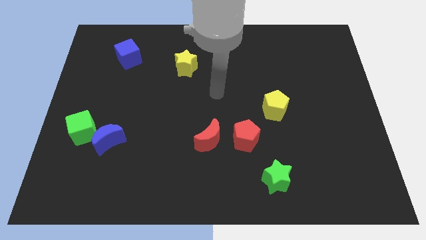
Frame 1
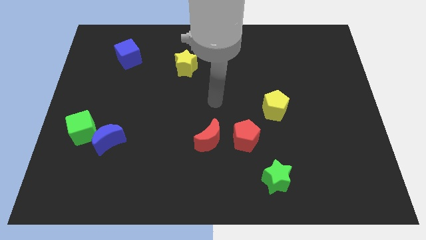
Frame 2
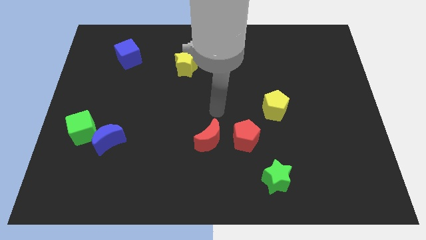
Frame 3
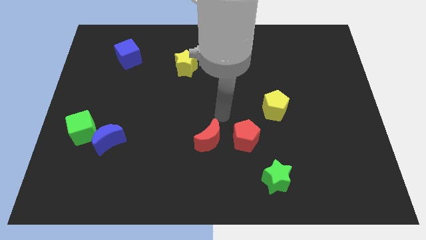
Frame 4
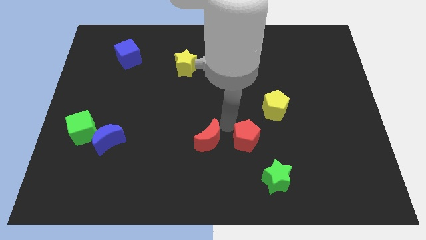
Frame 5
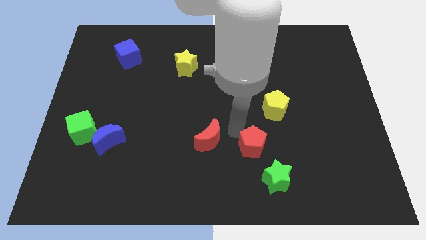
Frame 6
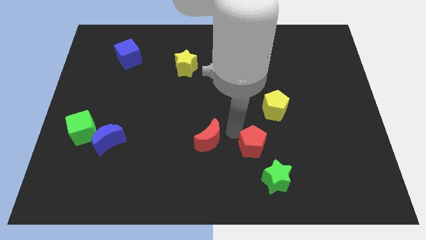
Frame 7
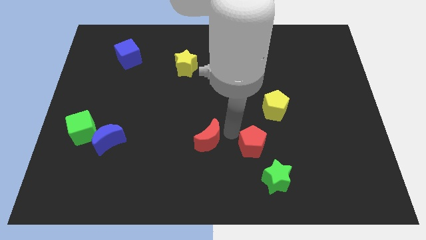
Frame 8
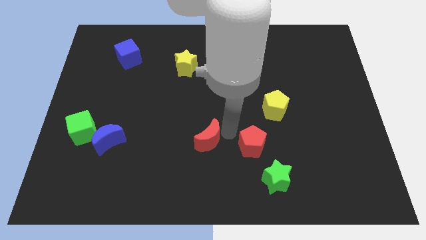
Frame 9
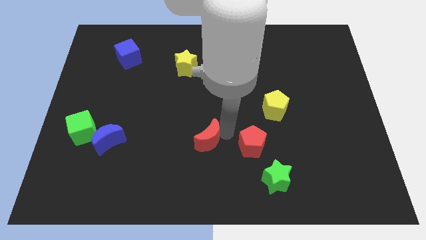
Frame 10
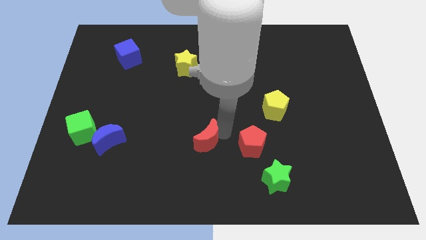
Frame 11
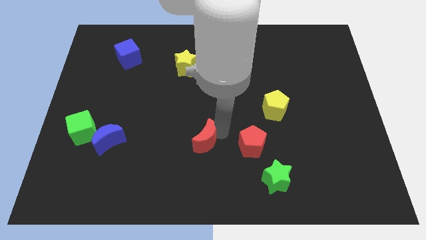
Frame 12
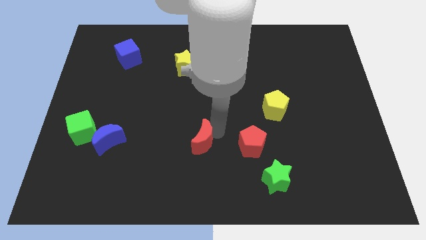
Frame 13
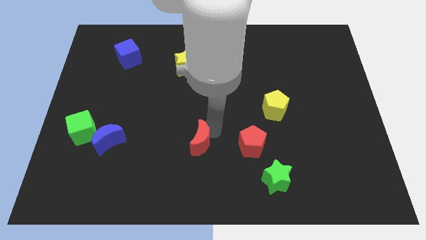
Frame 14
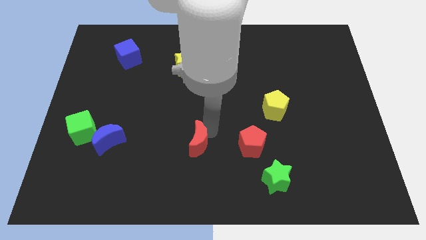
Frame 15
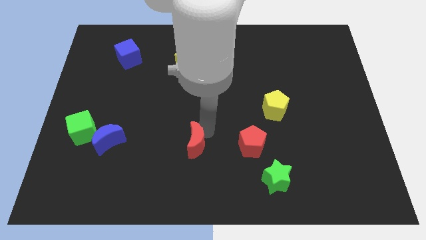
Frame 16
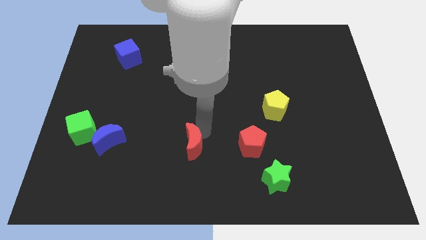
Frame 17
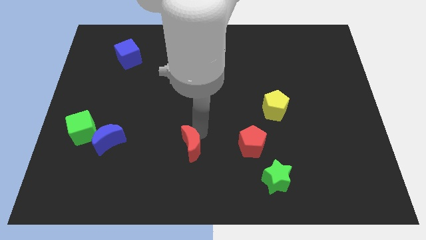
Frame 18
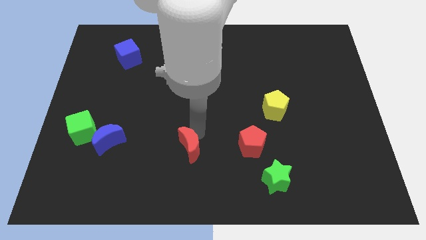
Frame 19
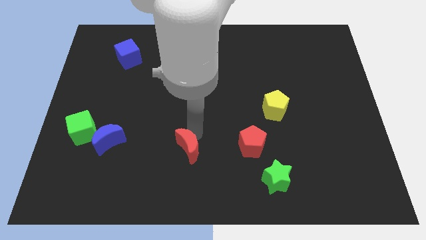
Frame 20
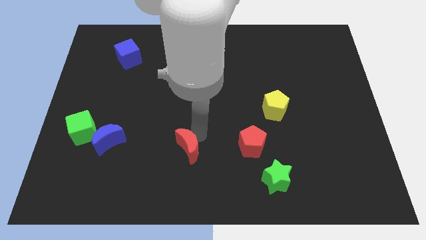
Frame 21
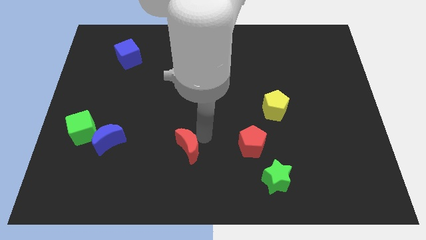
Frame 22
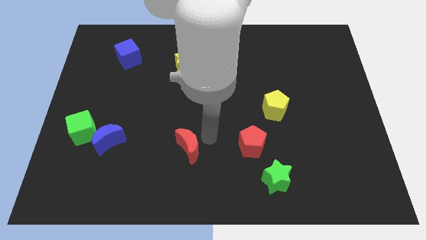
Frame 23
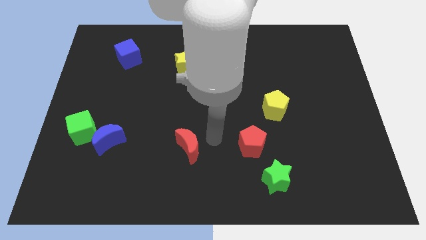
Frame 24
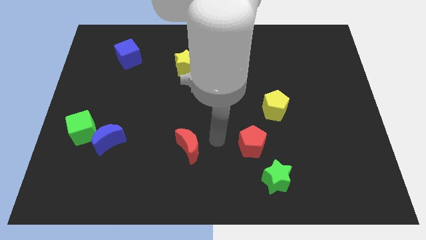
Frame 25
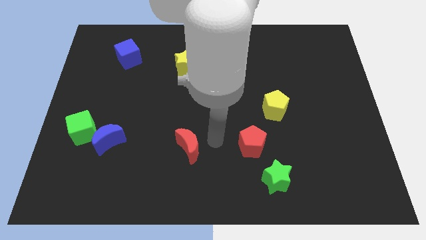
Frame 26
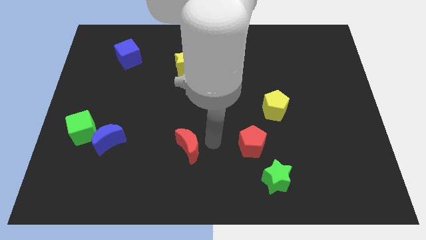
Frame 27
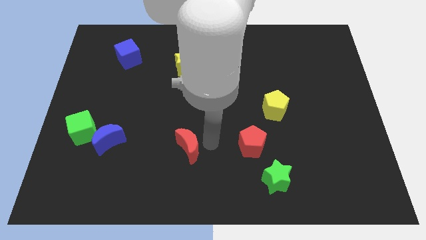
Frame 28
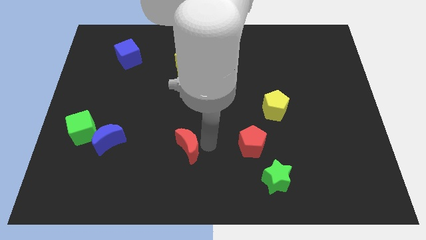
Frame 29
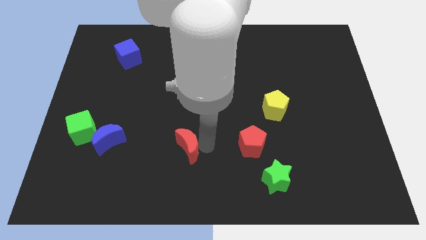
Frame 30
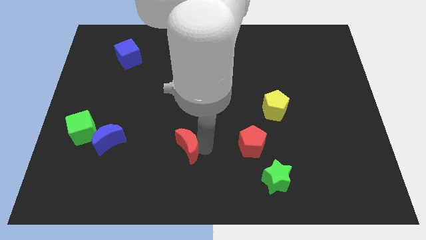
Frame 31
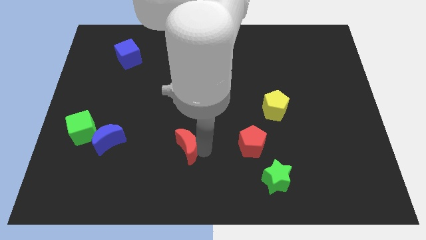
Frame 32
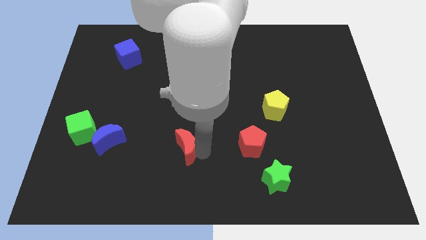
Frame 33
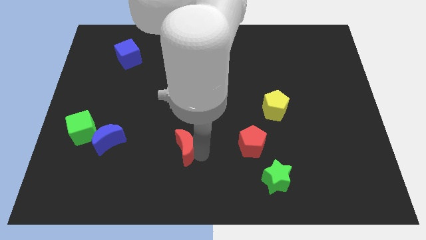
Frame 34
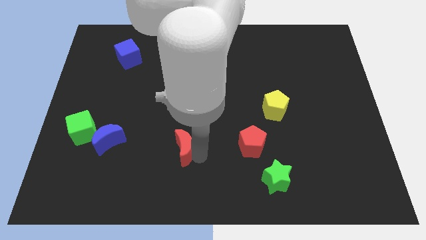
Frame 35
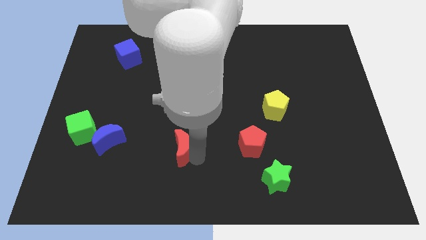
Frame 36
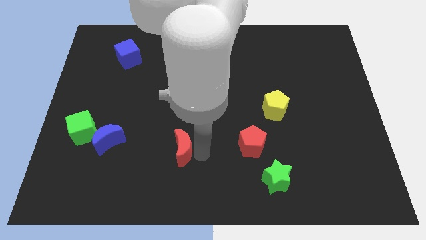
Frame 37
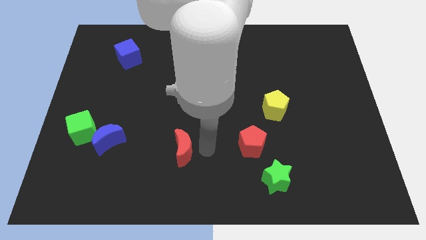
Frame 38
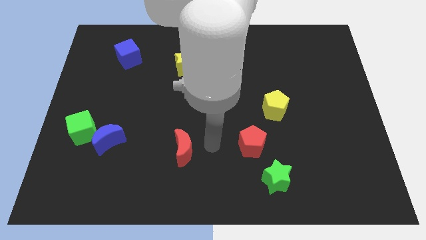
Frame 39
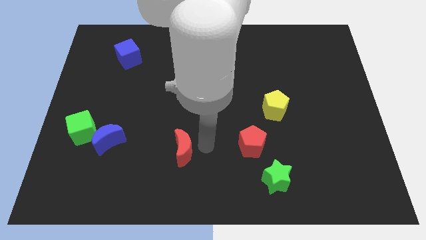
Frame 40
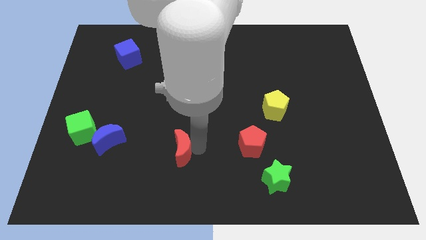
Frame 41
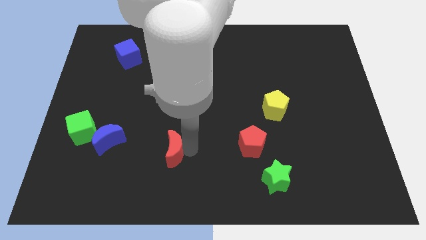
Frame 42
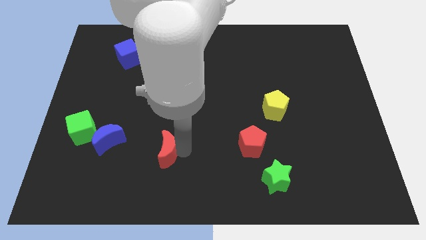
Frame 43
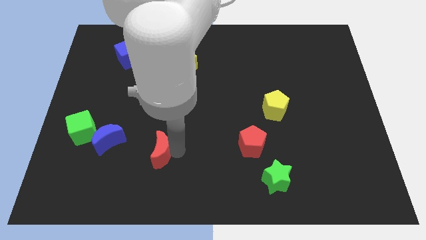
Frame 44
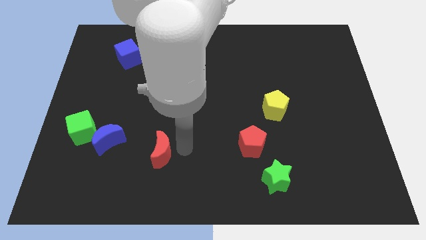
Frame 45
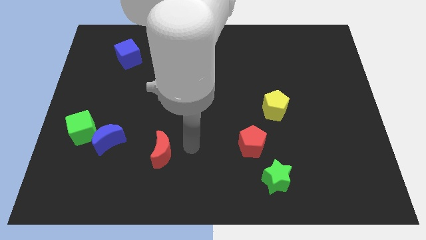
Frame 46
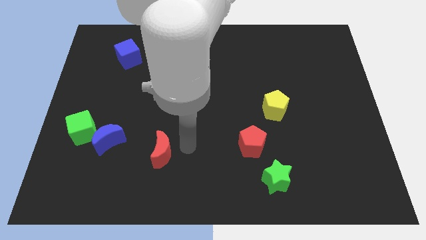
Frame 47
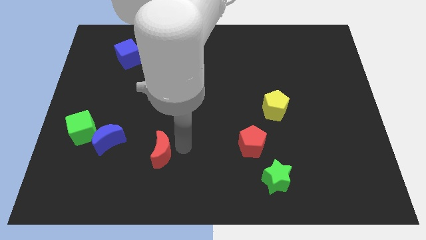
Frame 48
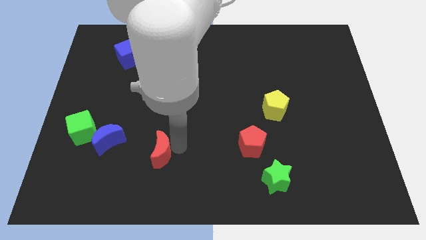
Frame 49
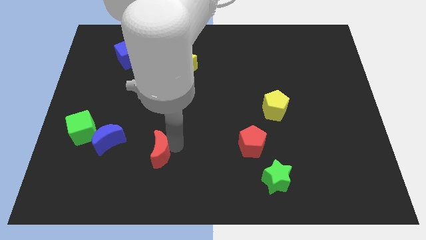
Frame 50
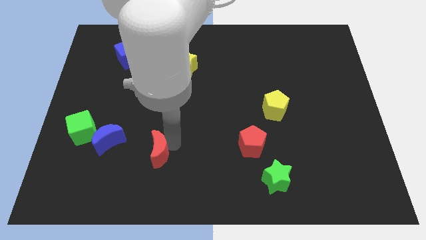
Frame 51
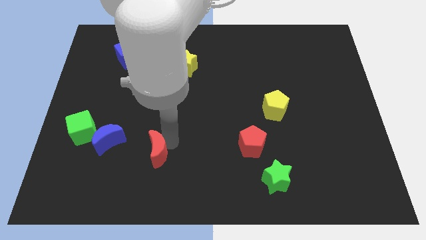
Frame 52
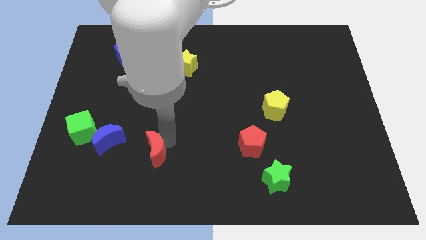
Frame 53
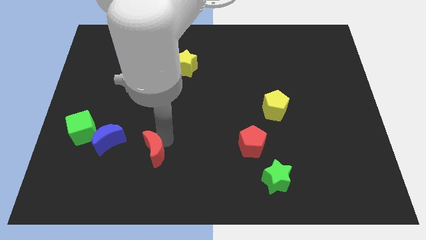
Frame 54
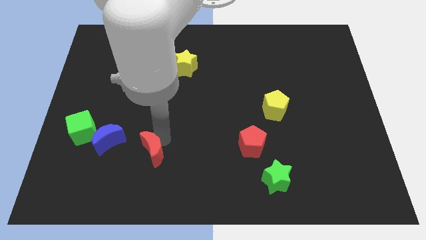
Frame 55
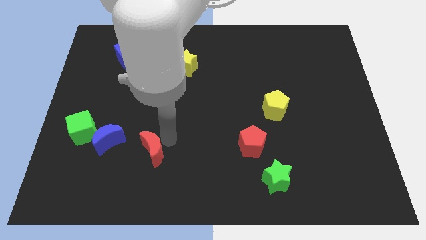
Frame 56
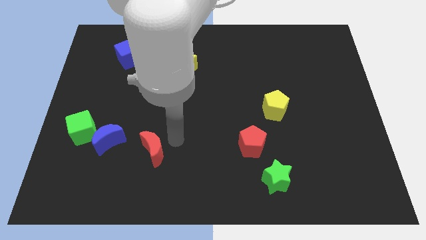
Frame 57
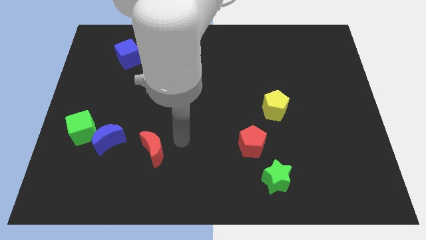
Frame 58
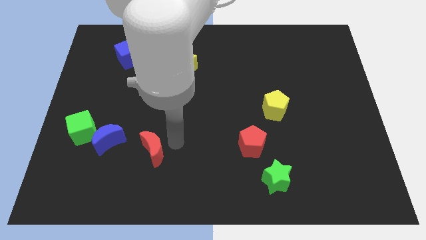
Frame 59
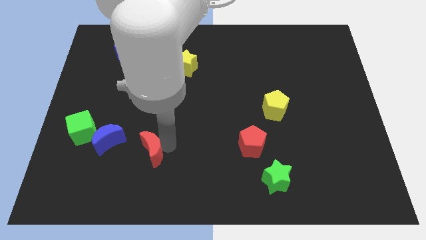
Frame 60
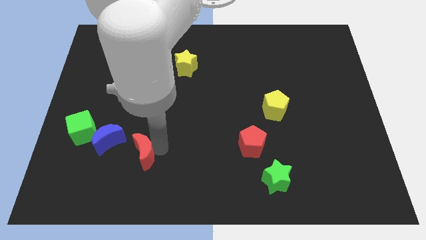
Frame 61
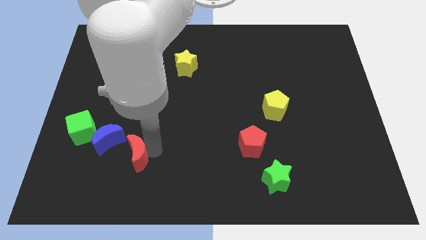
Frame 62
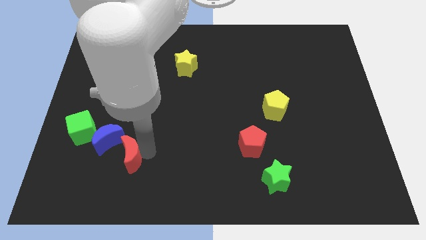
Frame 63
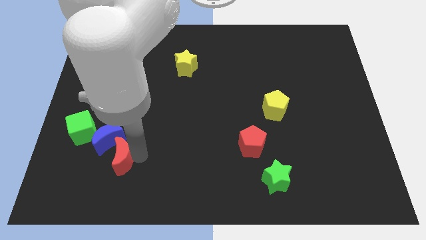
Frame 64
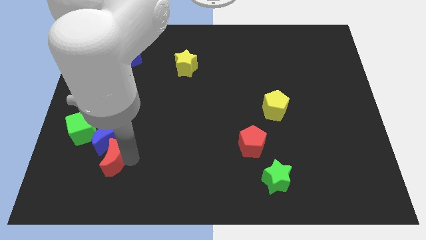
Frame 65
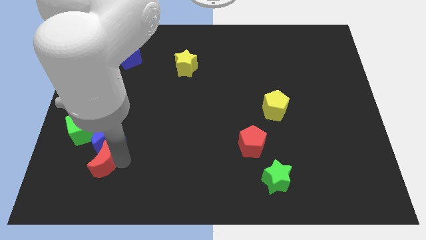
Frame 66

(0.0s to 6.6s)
push the red moon diagonally down and to the left of the blue moon

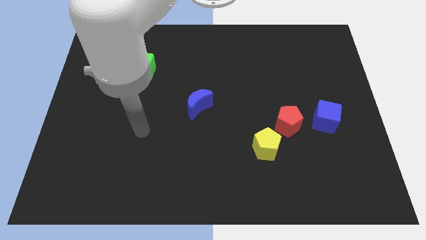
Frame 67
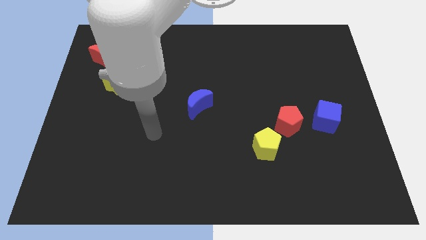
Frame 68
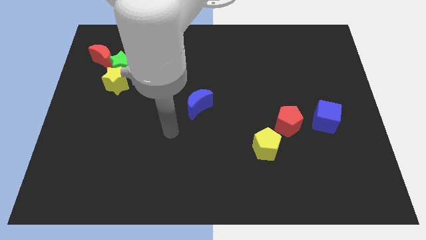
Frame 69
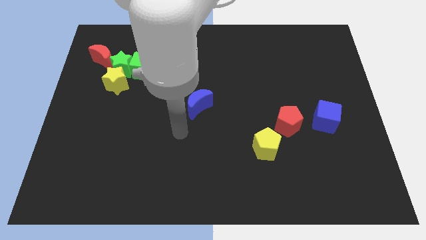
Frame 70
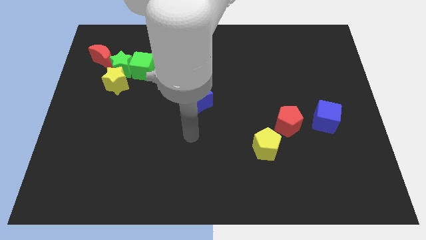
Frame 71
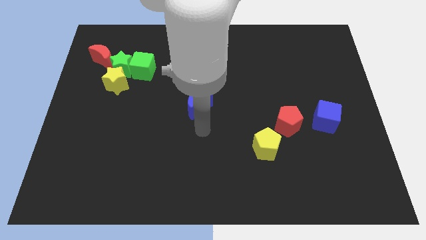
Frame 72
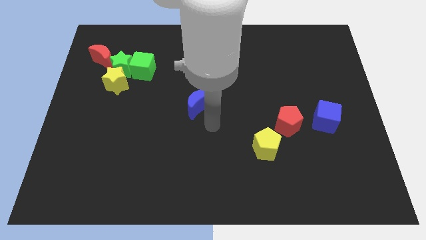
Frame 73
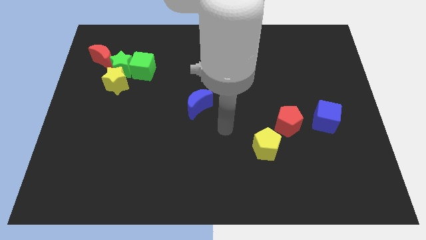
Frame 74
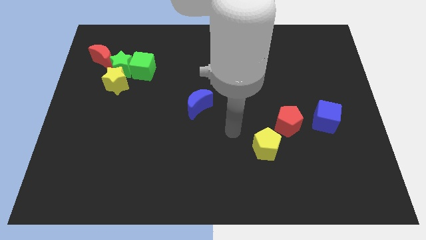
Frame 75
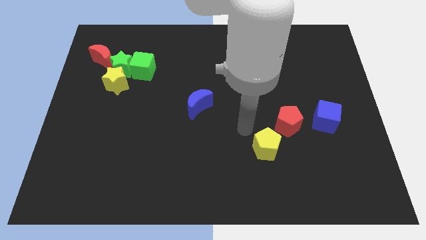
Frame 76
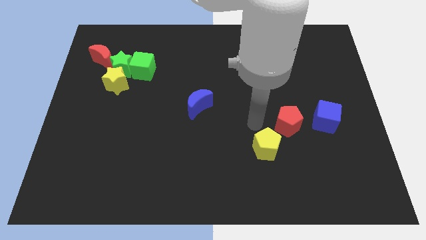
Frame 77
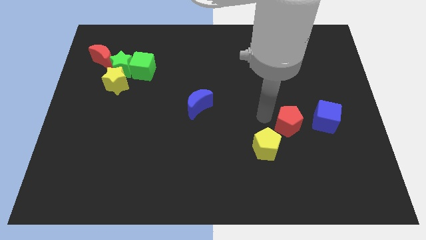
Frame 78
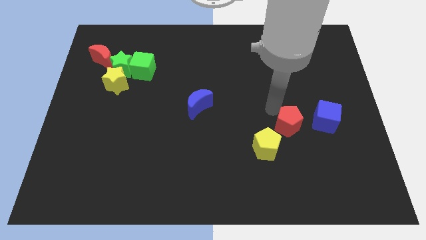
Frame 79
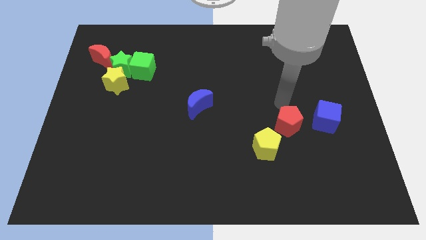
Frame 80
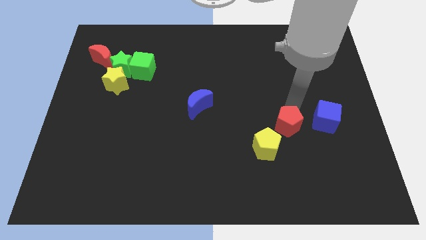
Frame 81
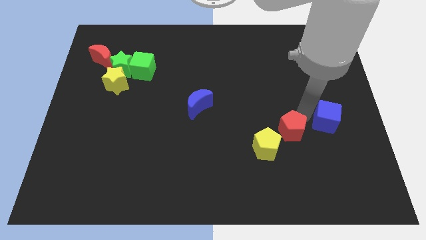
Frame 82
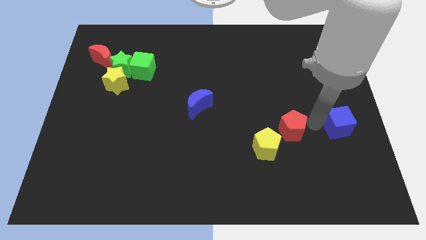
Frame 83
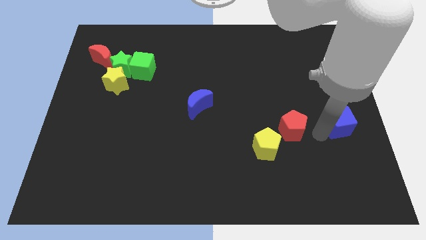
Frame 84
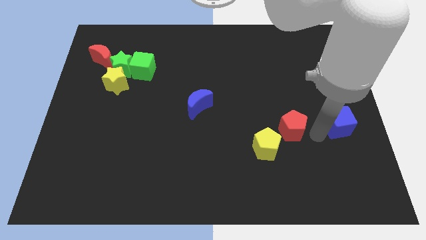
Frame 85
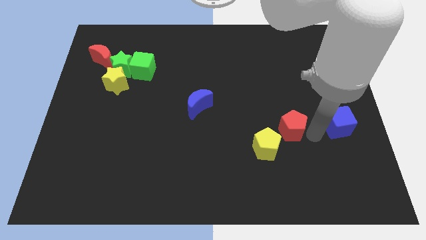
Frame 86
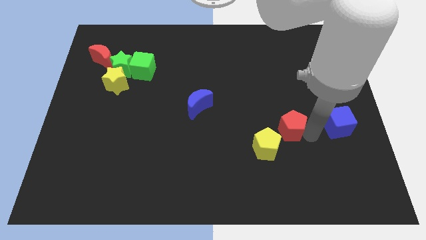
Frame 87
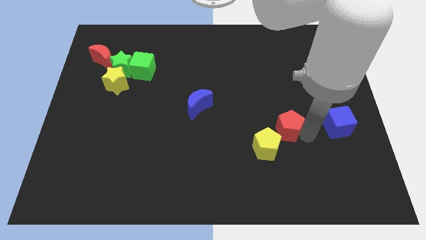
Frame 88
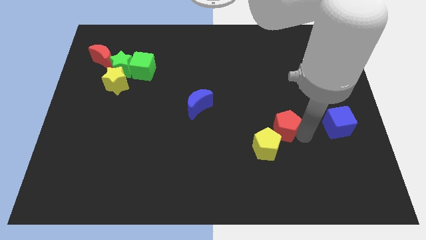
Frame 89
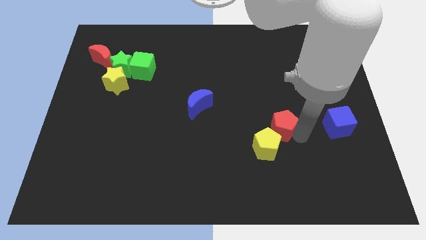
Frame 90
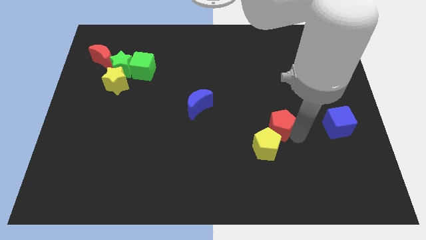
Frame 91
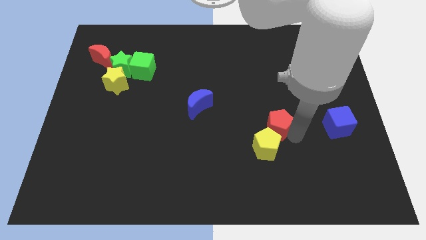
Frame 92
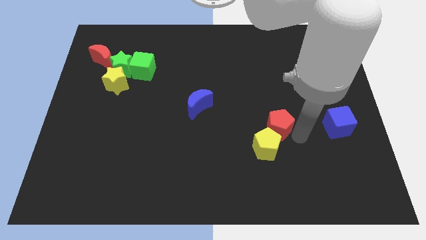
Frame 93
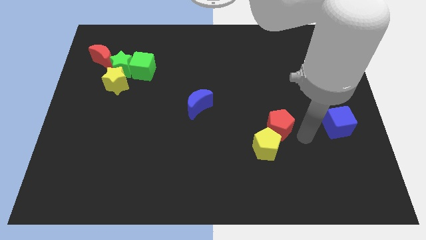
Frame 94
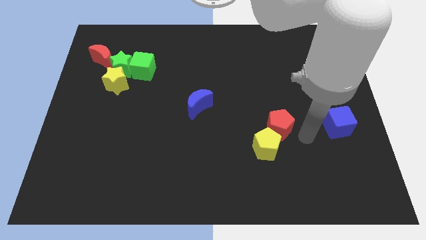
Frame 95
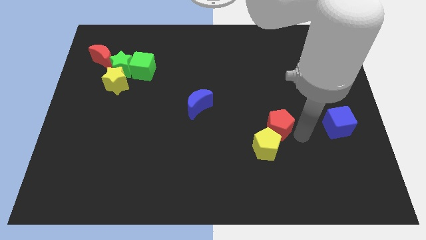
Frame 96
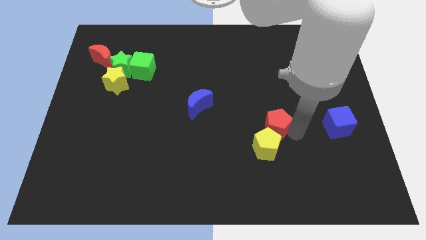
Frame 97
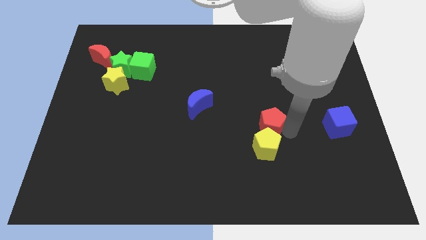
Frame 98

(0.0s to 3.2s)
put the red pentagon to the top left of the yellow pentagon
